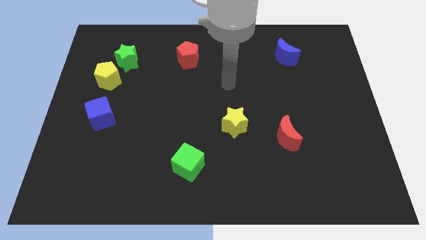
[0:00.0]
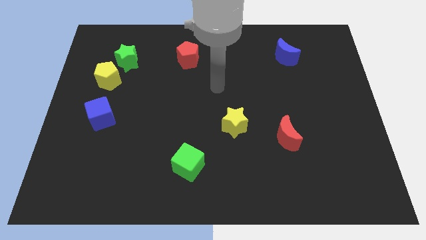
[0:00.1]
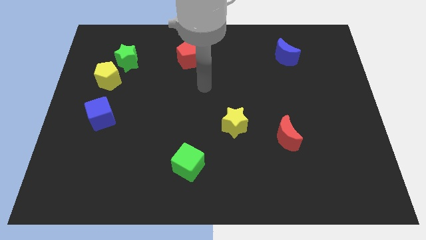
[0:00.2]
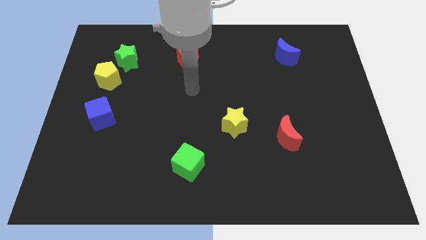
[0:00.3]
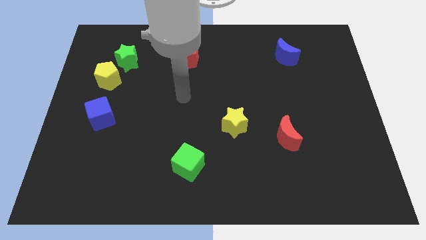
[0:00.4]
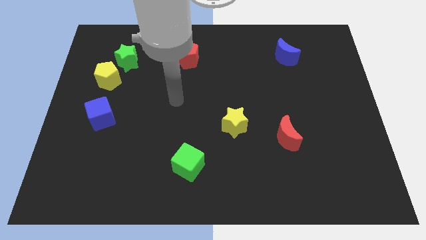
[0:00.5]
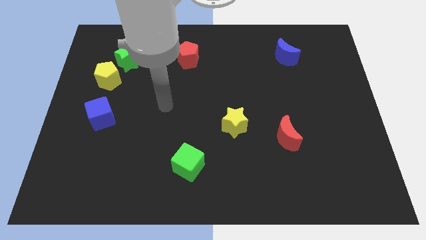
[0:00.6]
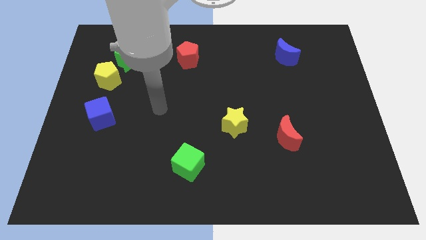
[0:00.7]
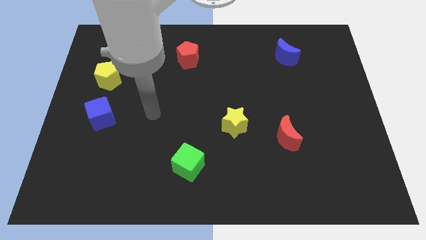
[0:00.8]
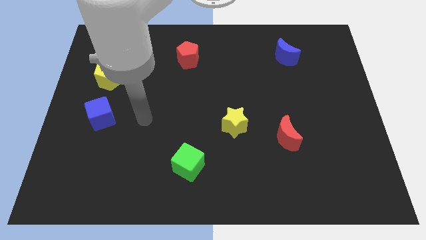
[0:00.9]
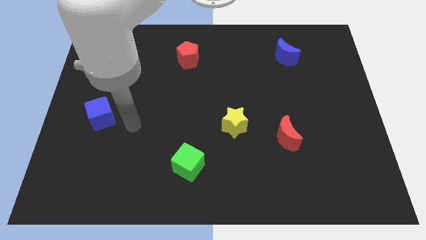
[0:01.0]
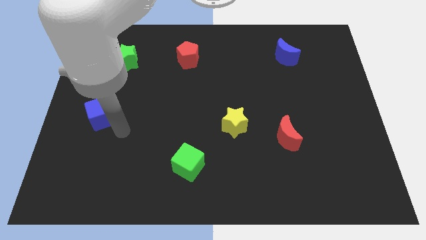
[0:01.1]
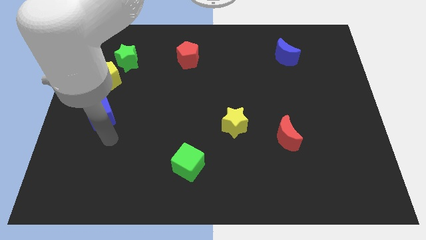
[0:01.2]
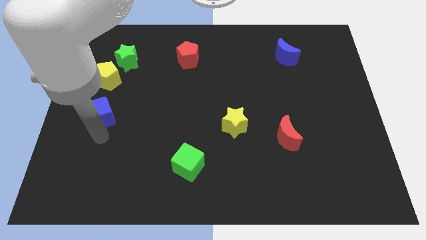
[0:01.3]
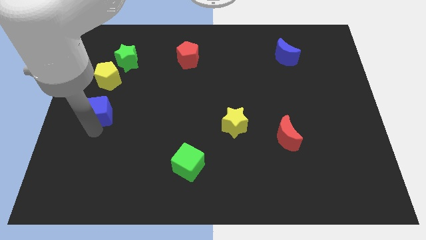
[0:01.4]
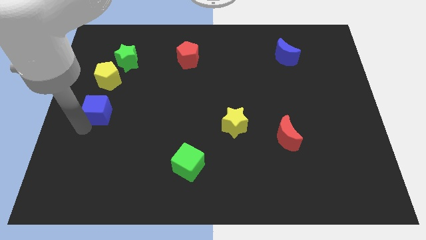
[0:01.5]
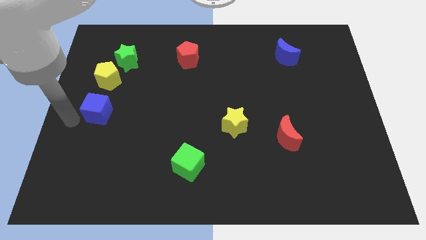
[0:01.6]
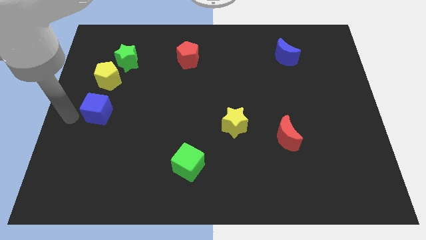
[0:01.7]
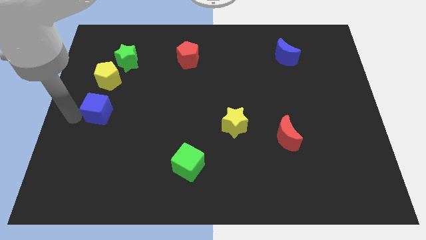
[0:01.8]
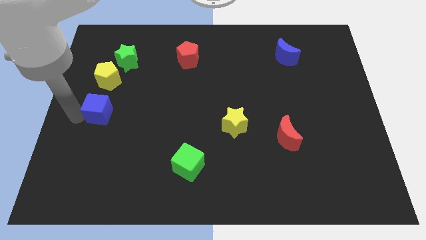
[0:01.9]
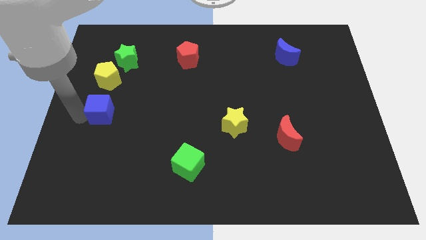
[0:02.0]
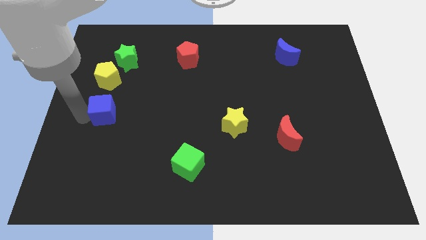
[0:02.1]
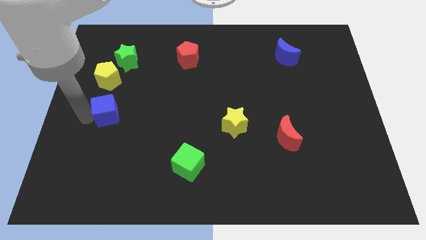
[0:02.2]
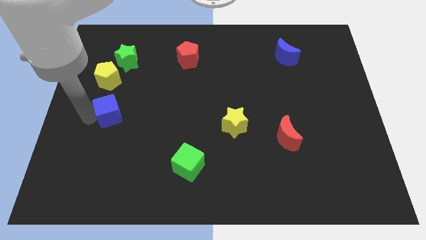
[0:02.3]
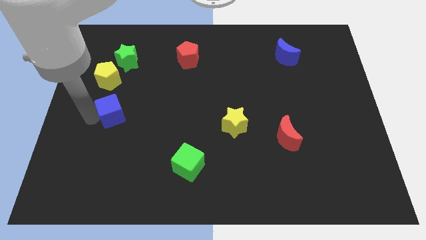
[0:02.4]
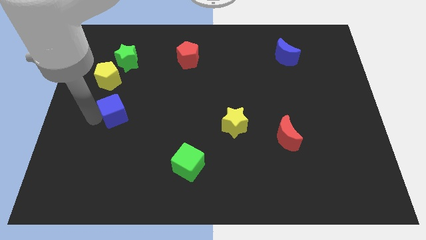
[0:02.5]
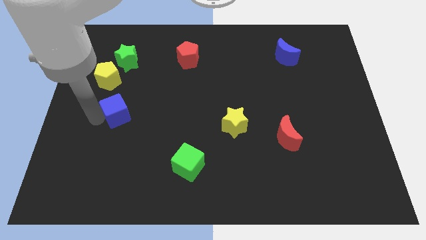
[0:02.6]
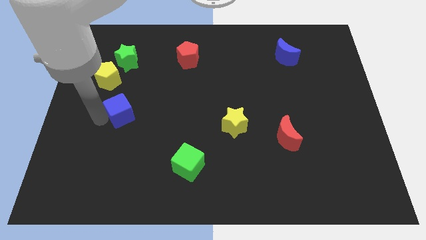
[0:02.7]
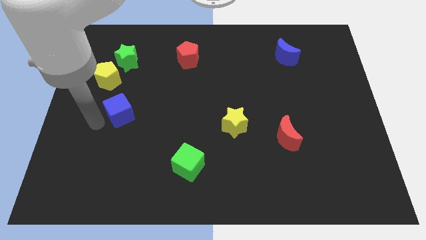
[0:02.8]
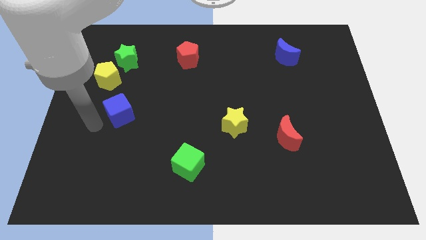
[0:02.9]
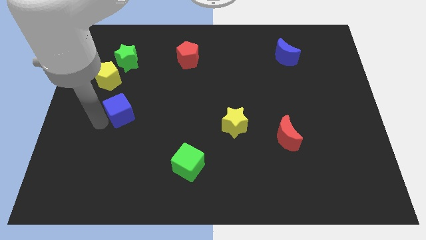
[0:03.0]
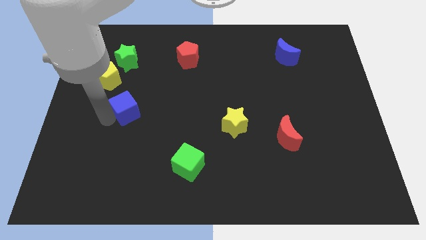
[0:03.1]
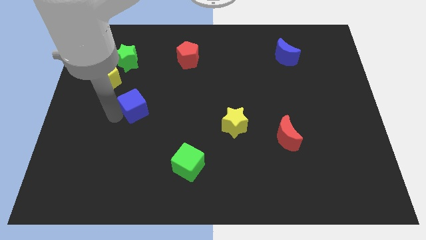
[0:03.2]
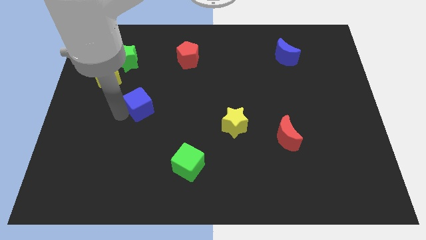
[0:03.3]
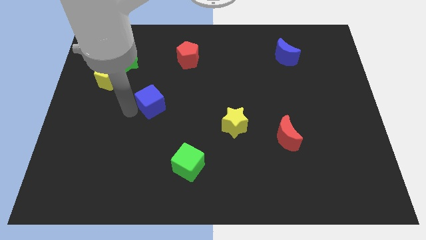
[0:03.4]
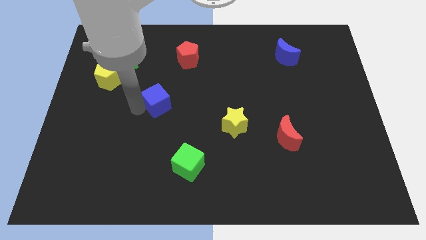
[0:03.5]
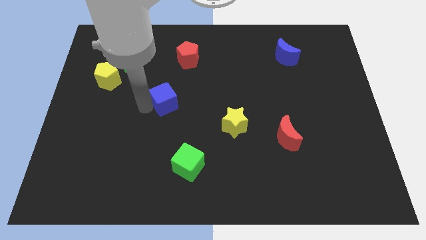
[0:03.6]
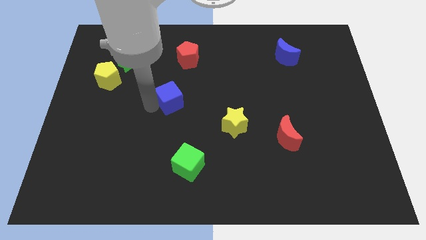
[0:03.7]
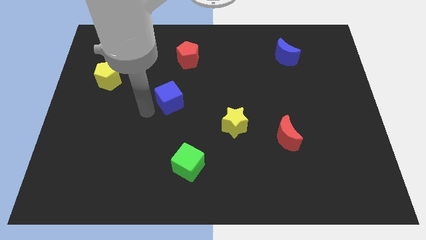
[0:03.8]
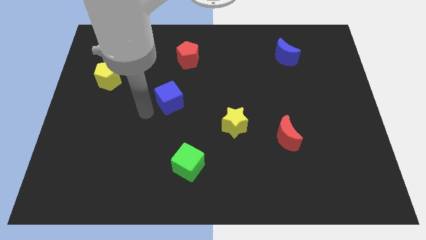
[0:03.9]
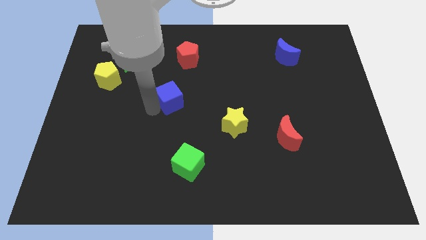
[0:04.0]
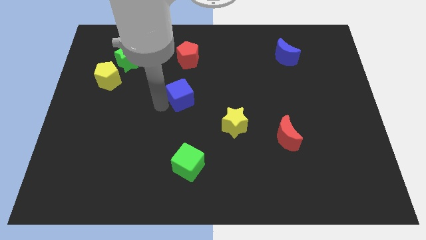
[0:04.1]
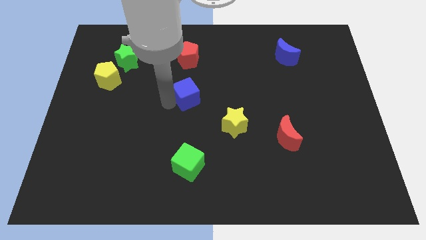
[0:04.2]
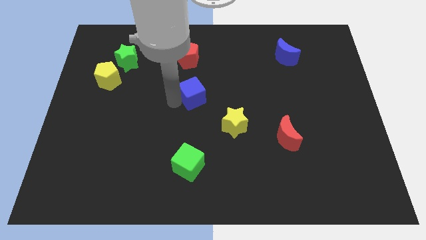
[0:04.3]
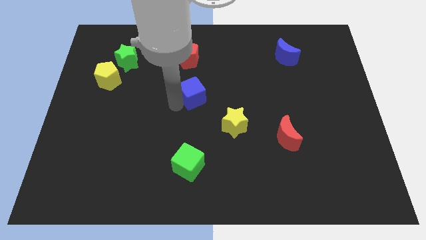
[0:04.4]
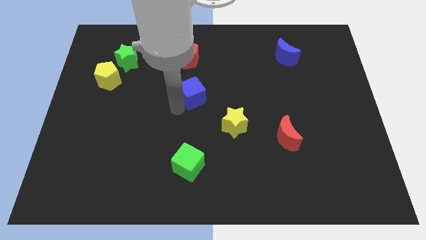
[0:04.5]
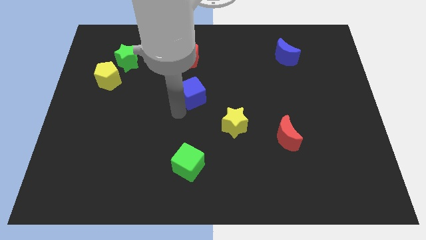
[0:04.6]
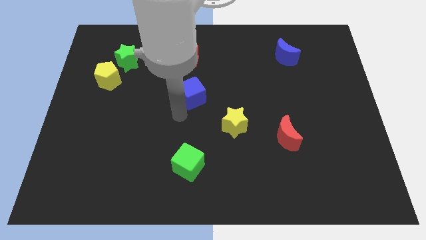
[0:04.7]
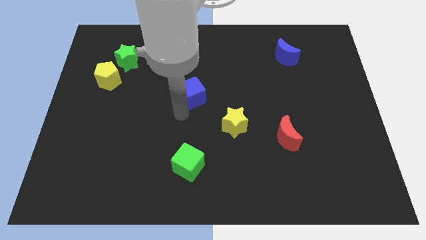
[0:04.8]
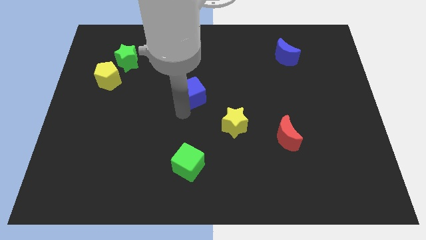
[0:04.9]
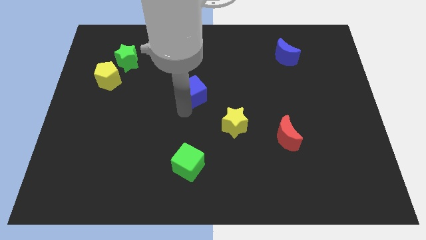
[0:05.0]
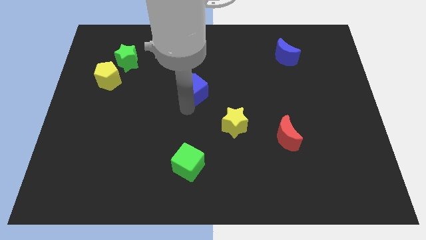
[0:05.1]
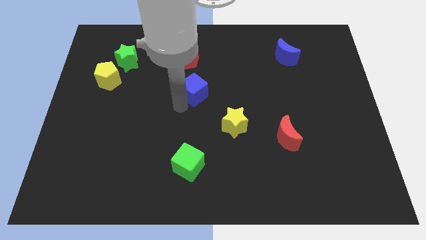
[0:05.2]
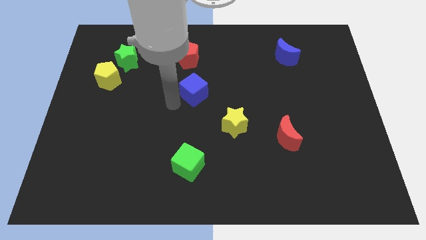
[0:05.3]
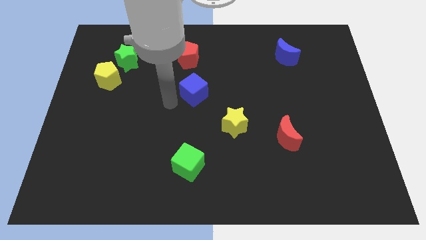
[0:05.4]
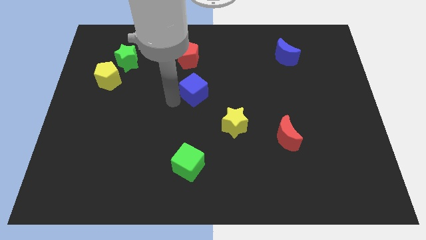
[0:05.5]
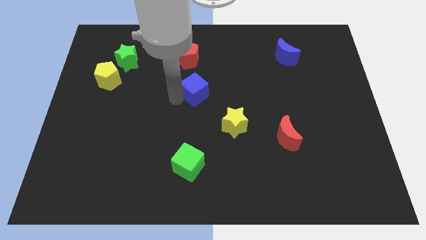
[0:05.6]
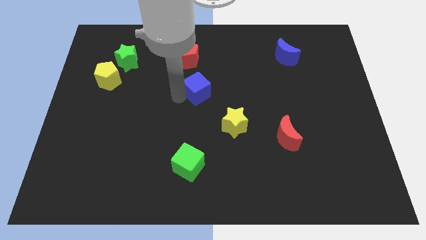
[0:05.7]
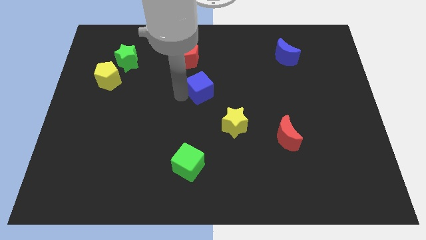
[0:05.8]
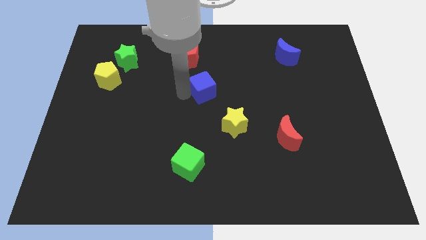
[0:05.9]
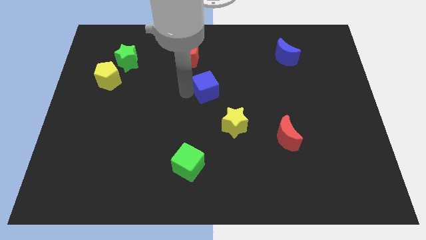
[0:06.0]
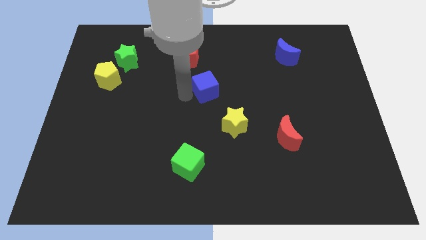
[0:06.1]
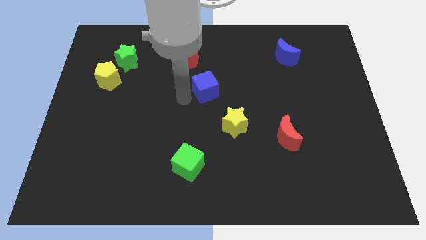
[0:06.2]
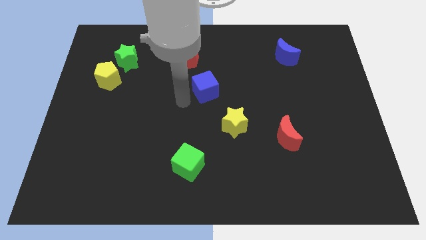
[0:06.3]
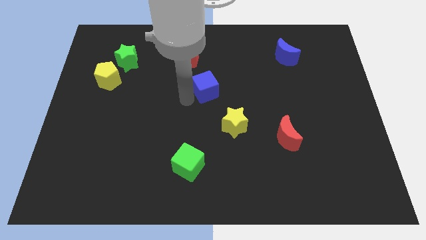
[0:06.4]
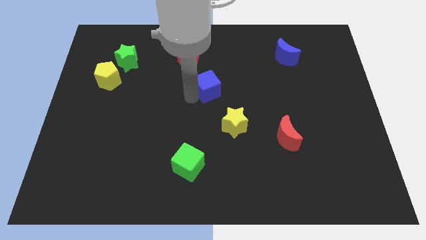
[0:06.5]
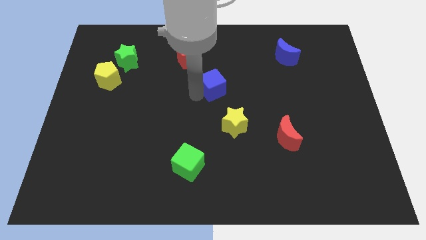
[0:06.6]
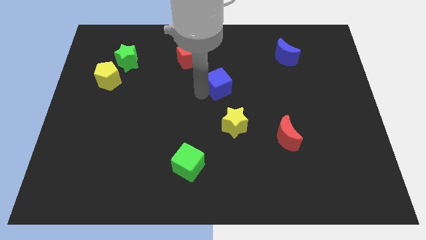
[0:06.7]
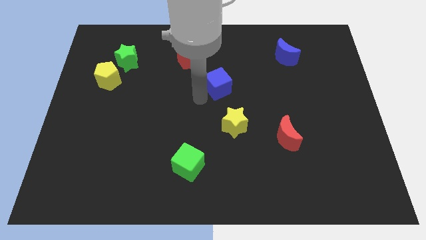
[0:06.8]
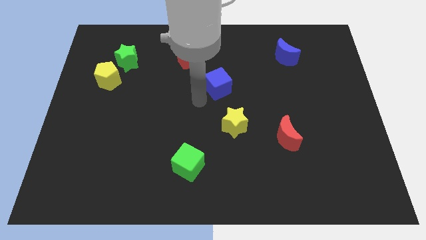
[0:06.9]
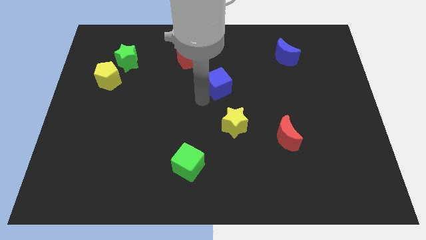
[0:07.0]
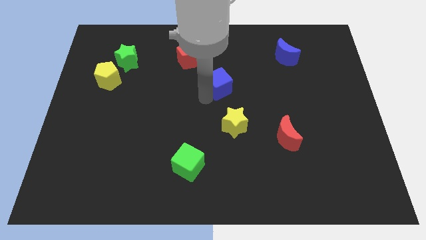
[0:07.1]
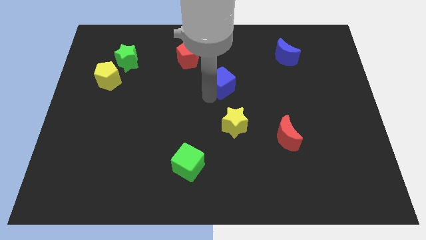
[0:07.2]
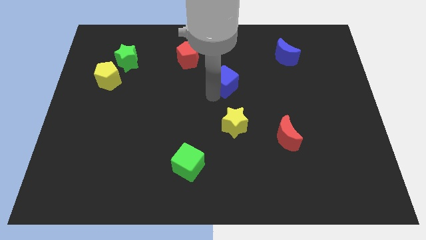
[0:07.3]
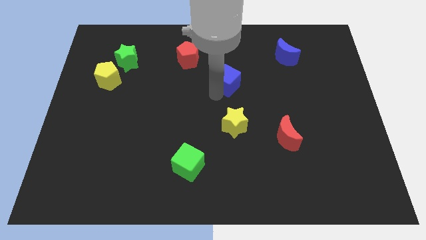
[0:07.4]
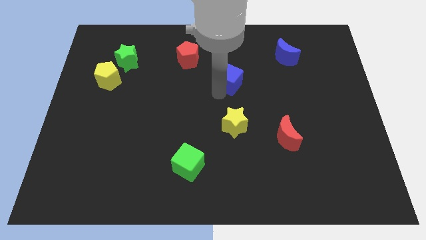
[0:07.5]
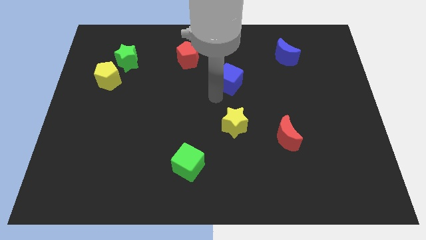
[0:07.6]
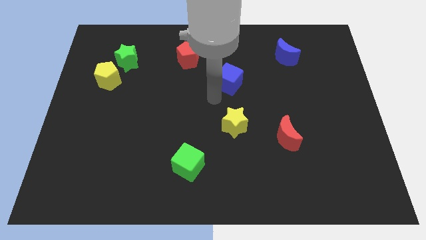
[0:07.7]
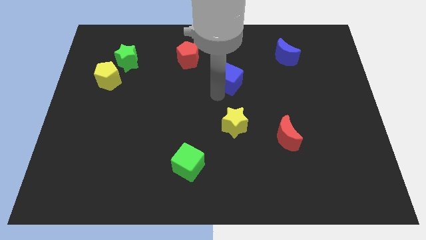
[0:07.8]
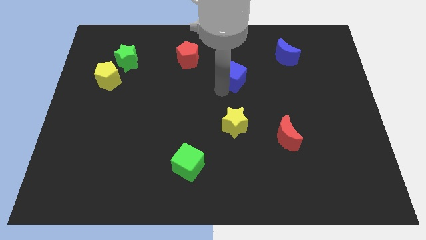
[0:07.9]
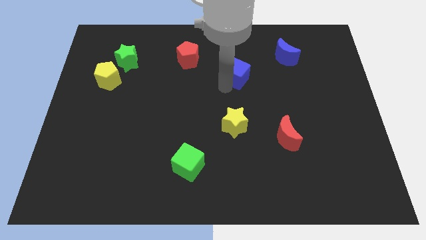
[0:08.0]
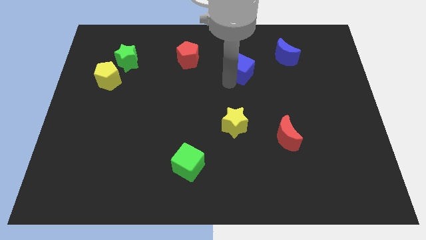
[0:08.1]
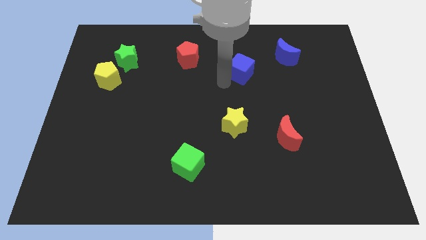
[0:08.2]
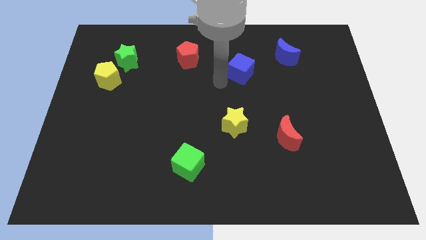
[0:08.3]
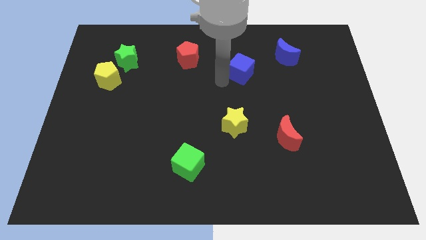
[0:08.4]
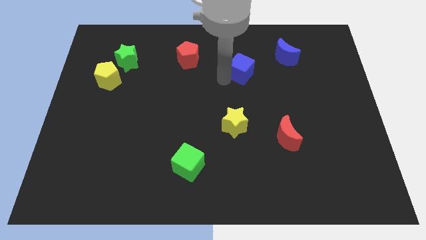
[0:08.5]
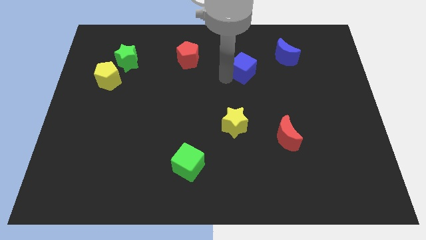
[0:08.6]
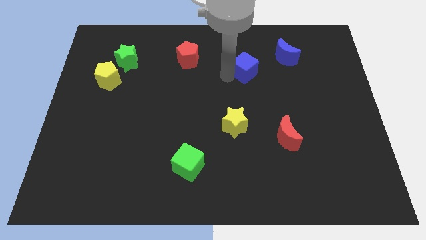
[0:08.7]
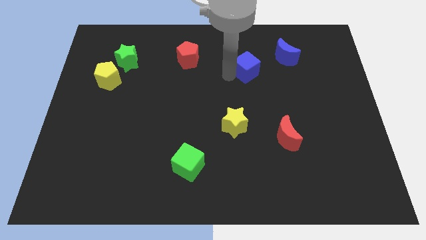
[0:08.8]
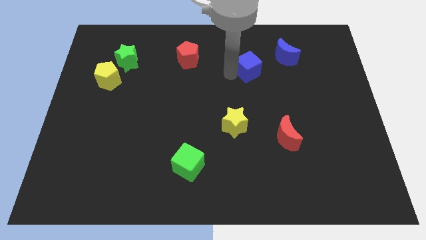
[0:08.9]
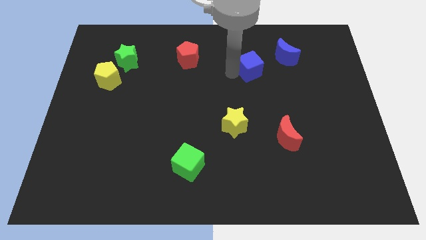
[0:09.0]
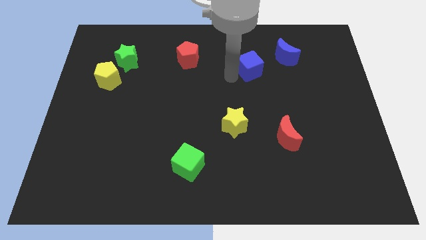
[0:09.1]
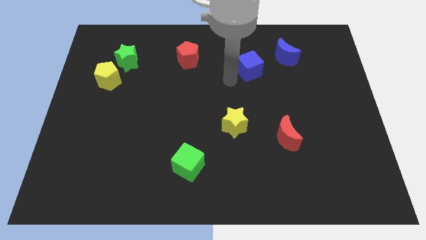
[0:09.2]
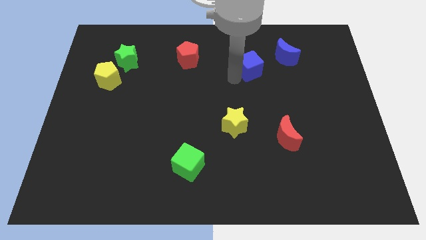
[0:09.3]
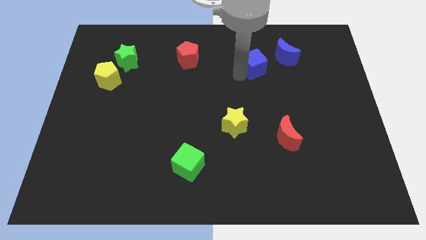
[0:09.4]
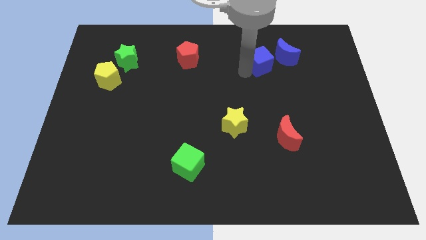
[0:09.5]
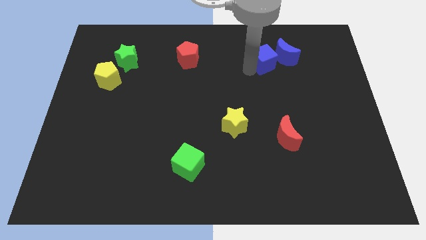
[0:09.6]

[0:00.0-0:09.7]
push the blue cube next to the blue moon
